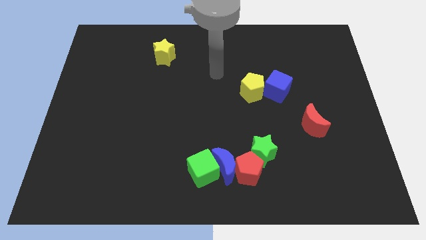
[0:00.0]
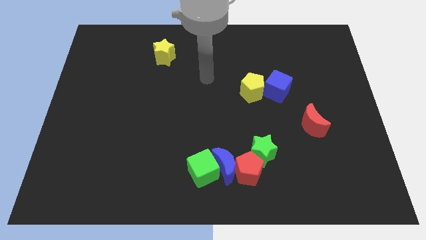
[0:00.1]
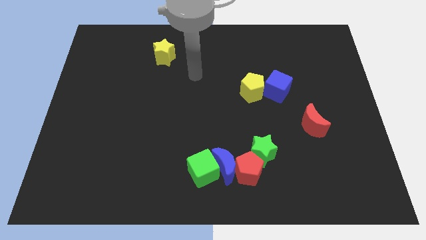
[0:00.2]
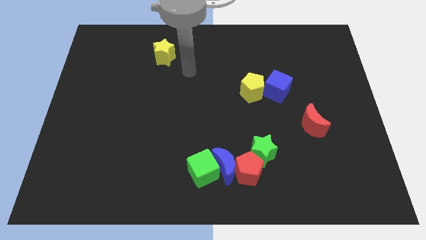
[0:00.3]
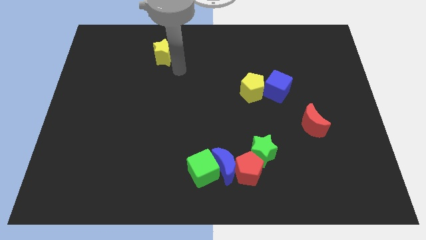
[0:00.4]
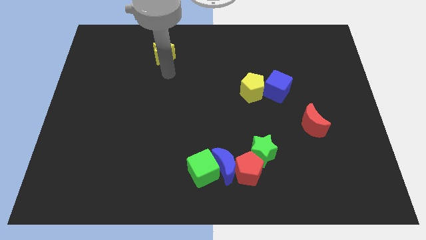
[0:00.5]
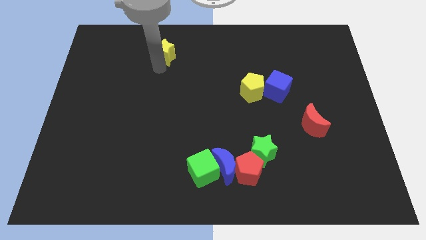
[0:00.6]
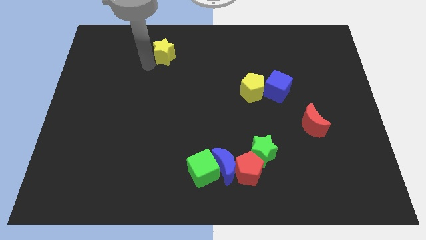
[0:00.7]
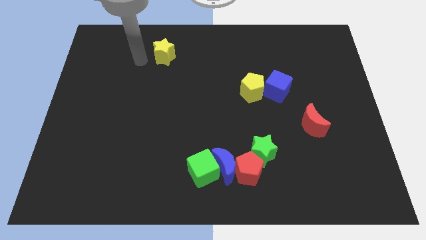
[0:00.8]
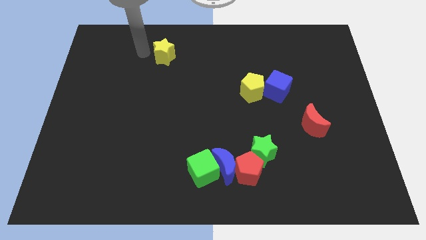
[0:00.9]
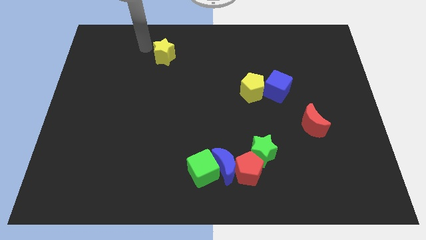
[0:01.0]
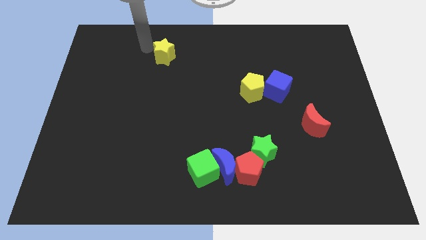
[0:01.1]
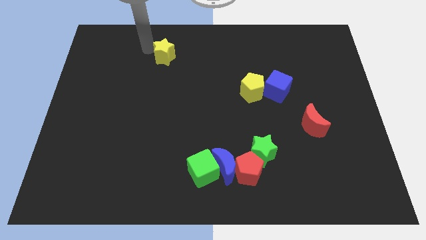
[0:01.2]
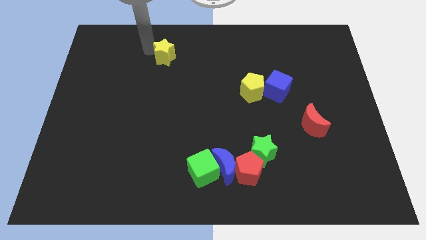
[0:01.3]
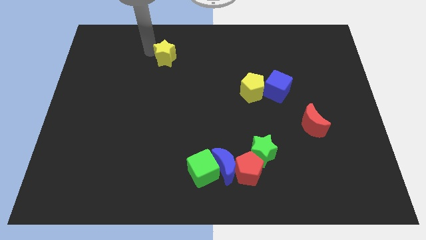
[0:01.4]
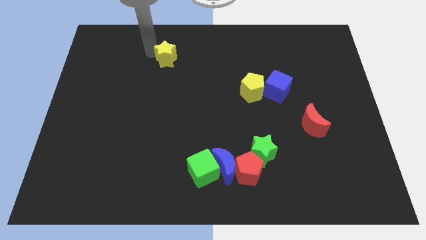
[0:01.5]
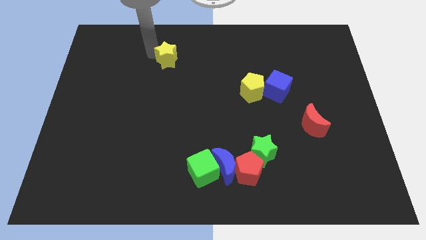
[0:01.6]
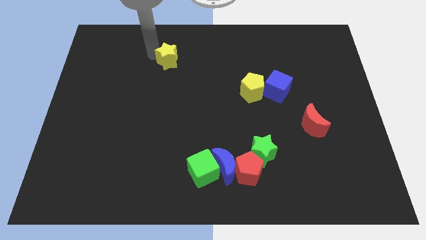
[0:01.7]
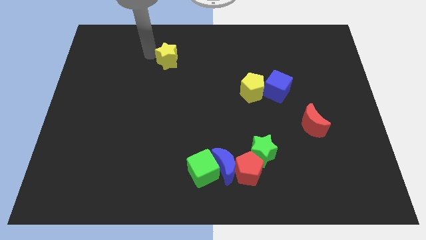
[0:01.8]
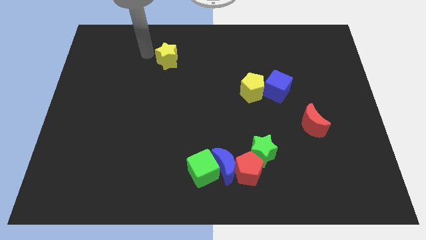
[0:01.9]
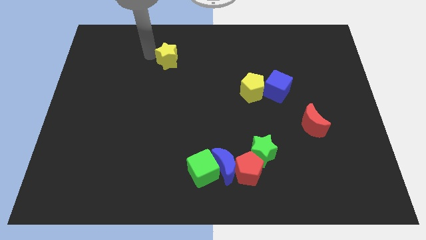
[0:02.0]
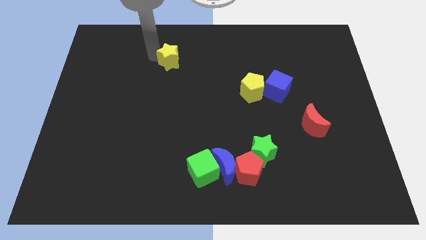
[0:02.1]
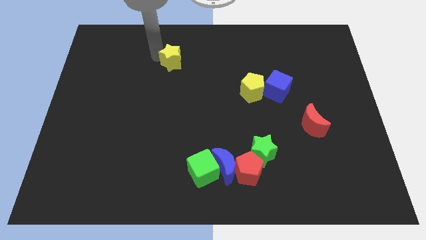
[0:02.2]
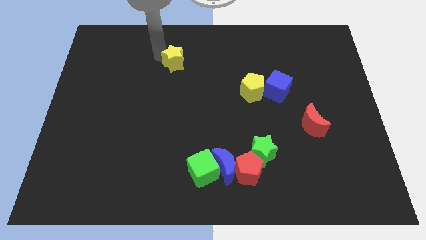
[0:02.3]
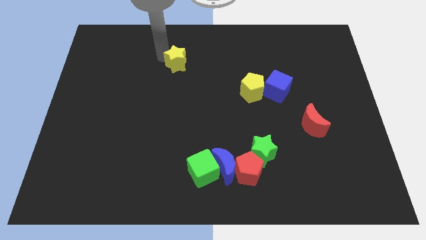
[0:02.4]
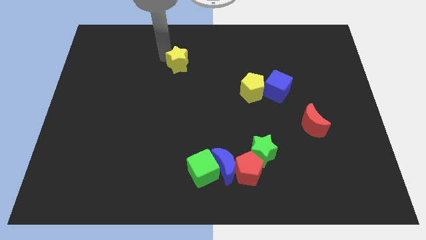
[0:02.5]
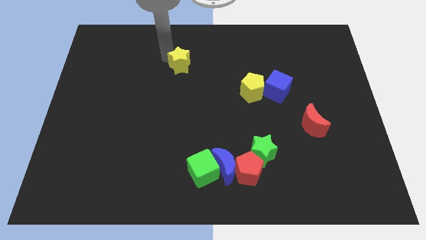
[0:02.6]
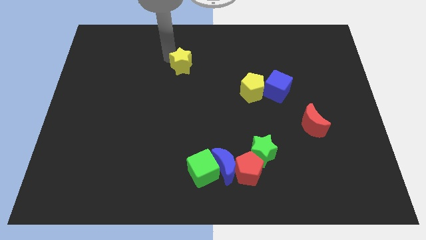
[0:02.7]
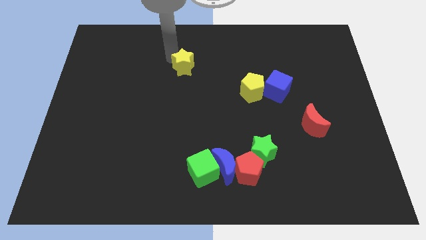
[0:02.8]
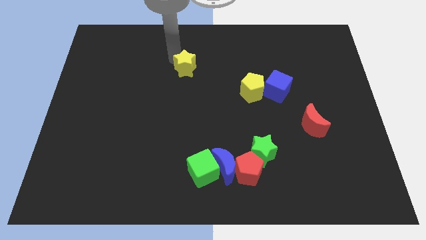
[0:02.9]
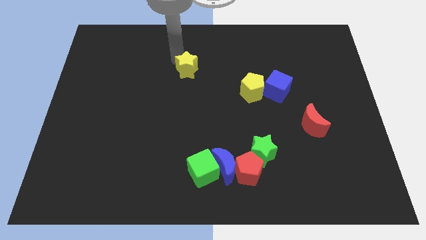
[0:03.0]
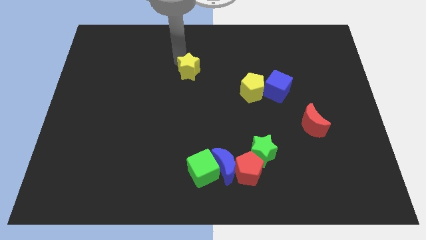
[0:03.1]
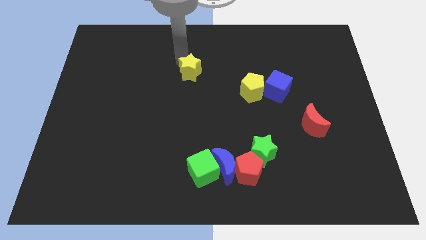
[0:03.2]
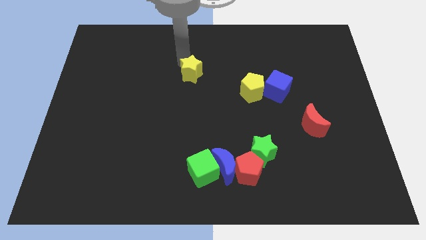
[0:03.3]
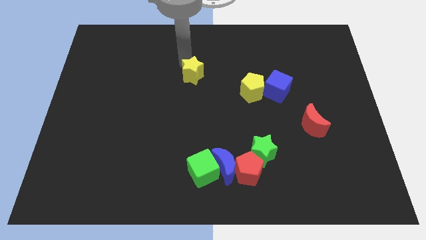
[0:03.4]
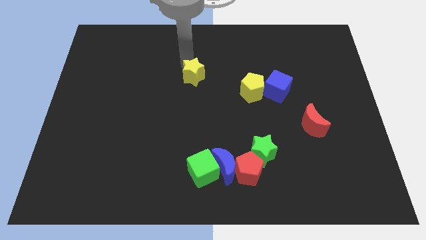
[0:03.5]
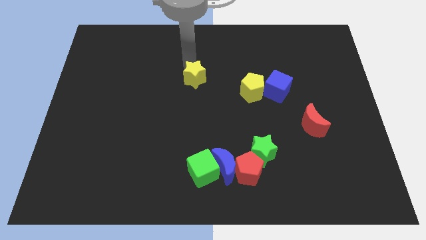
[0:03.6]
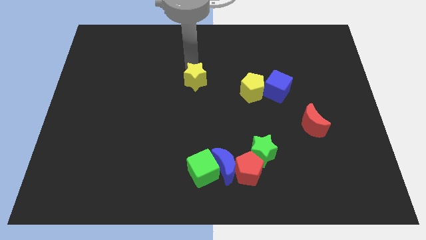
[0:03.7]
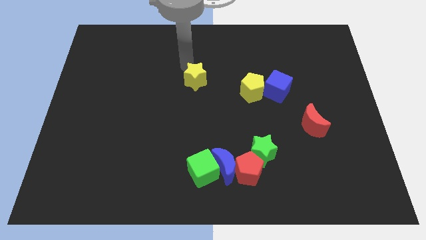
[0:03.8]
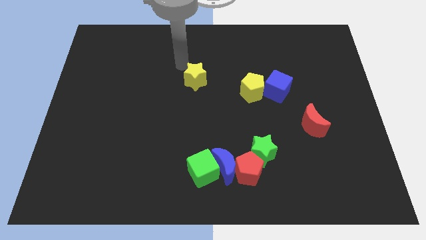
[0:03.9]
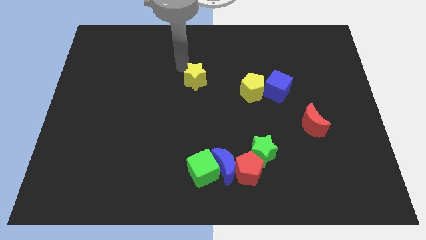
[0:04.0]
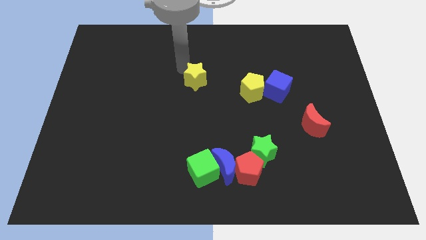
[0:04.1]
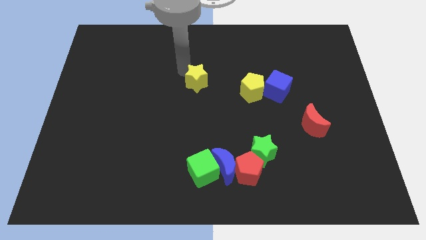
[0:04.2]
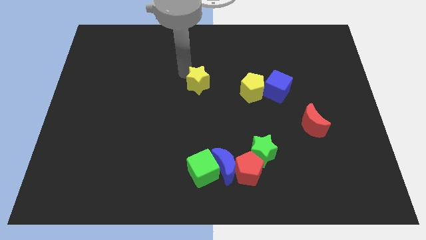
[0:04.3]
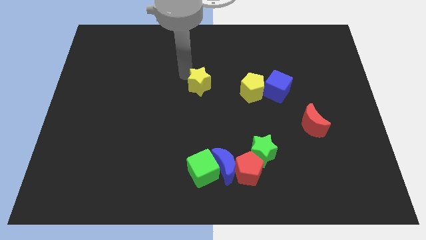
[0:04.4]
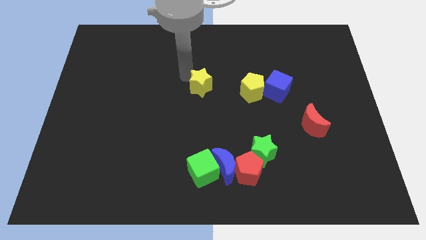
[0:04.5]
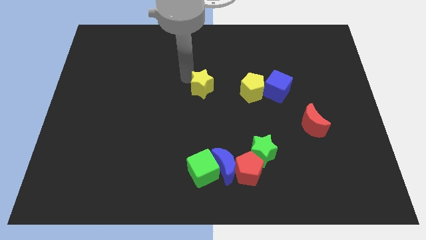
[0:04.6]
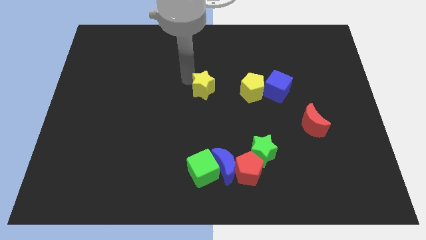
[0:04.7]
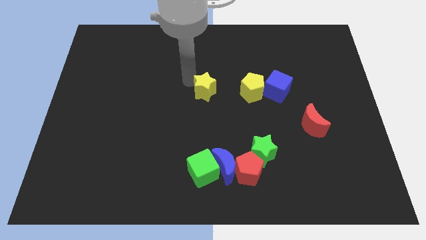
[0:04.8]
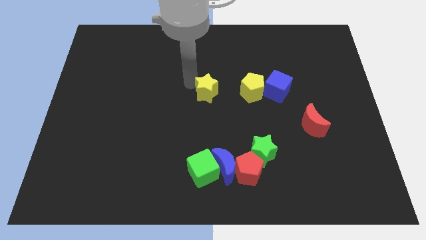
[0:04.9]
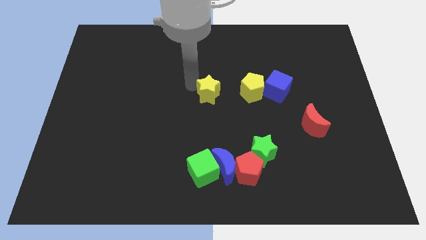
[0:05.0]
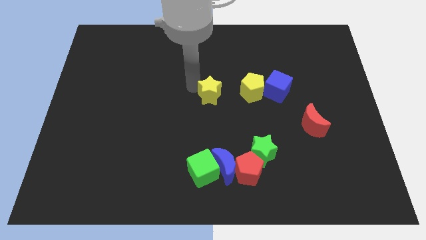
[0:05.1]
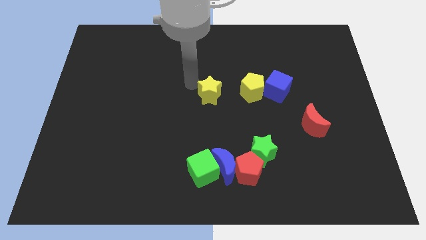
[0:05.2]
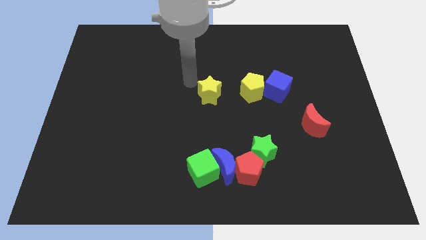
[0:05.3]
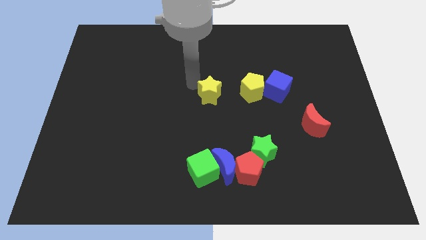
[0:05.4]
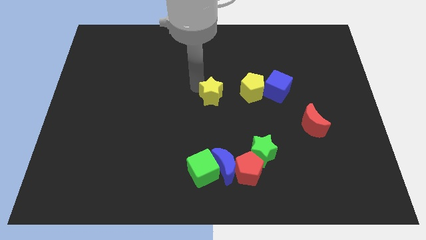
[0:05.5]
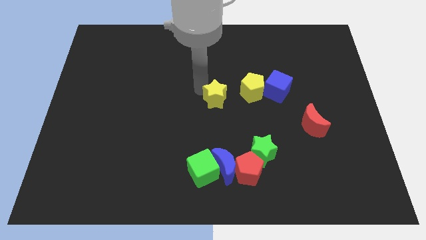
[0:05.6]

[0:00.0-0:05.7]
move the yellow star down and then to the right

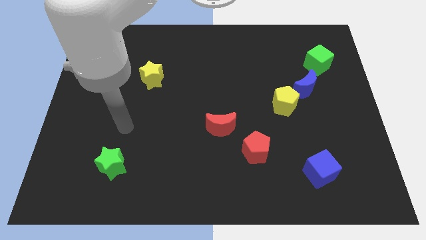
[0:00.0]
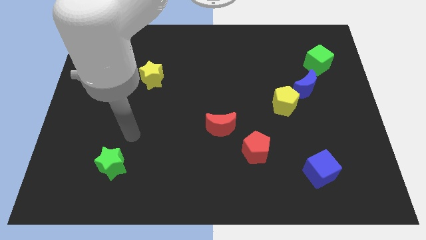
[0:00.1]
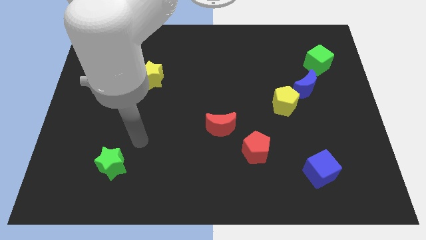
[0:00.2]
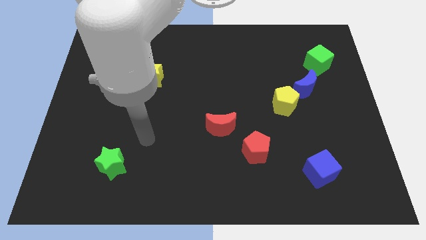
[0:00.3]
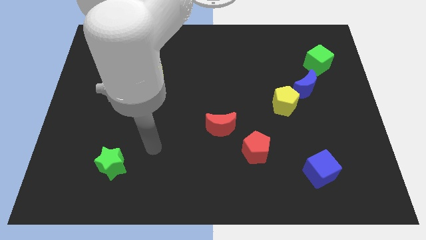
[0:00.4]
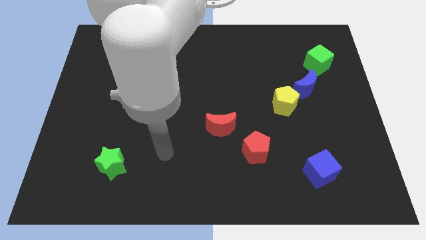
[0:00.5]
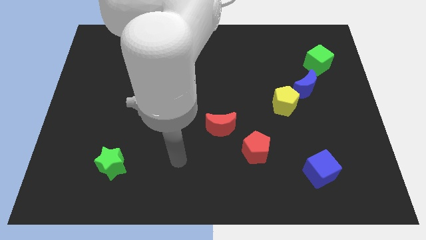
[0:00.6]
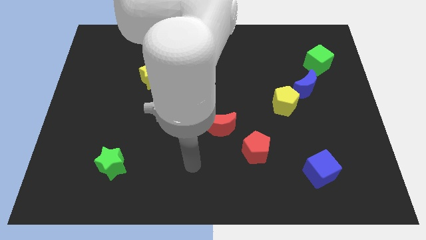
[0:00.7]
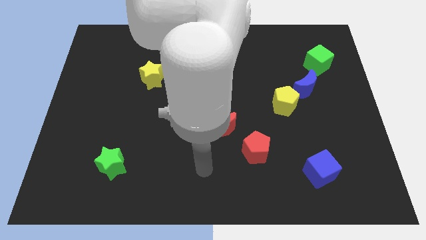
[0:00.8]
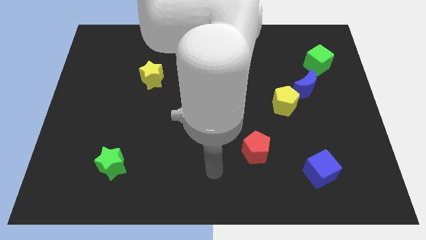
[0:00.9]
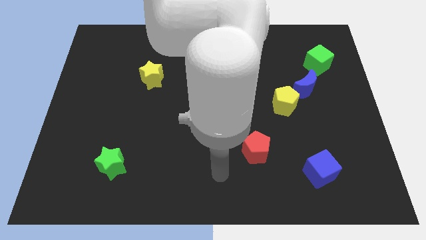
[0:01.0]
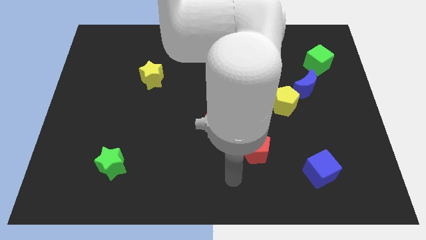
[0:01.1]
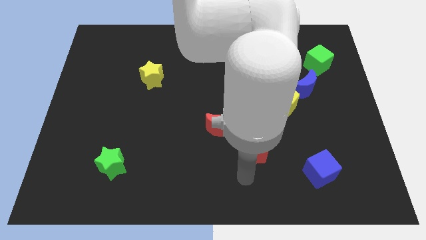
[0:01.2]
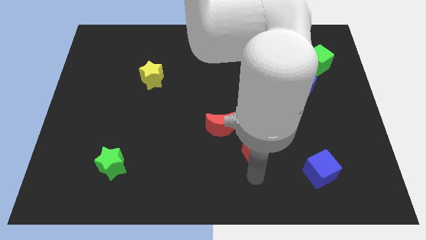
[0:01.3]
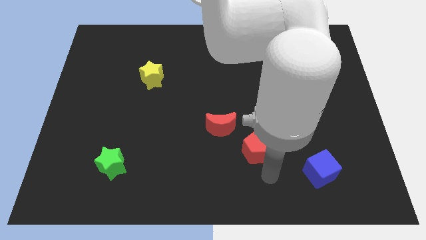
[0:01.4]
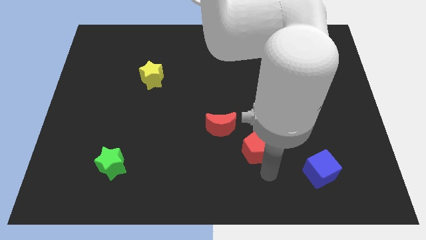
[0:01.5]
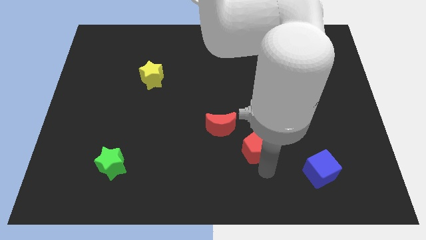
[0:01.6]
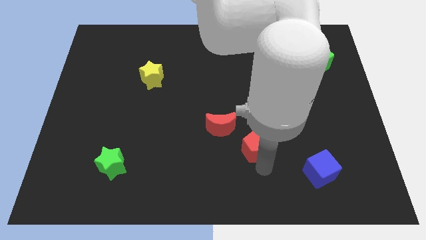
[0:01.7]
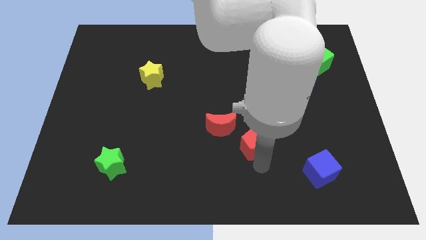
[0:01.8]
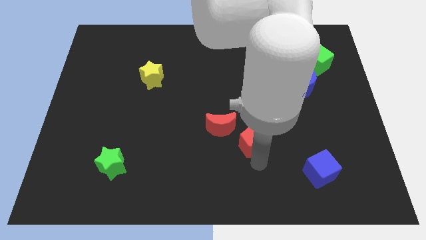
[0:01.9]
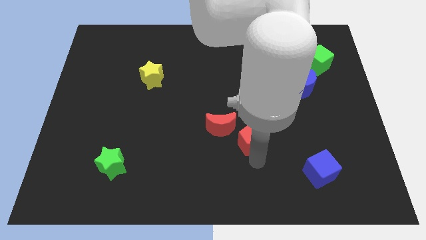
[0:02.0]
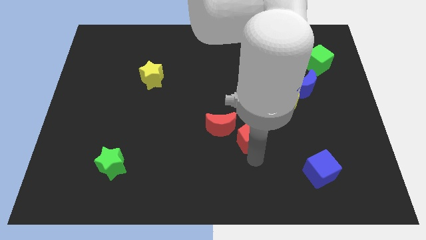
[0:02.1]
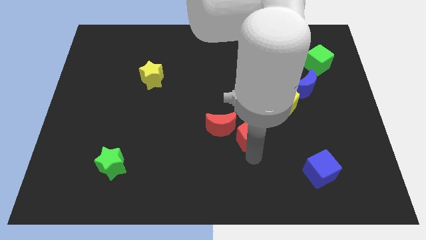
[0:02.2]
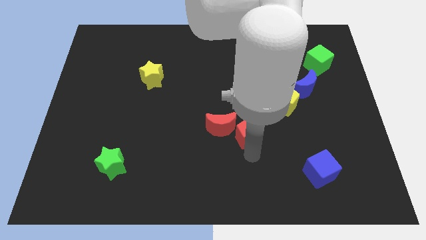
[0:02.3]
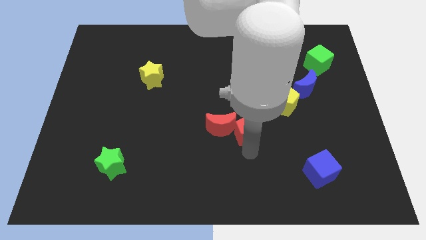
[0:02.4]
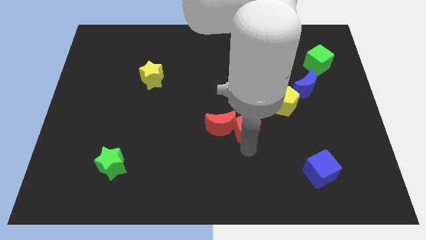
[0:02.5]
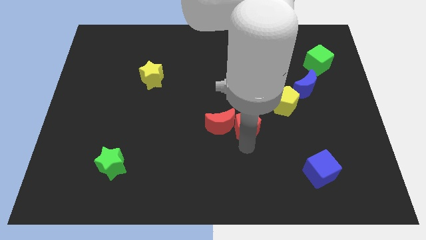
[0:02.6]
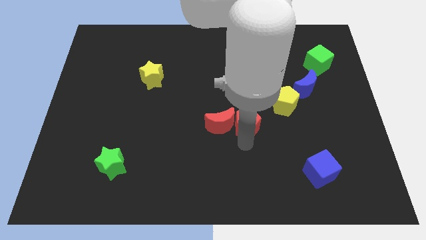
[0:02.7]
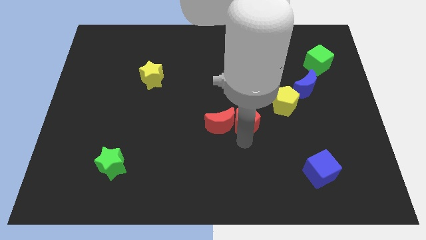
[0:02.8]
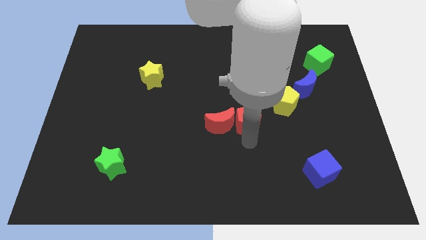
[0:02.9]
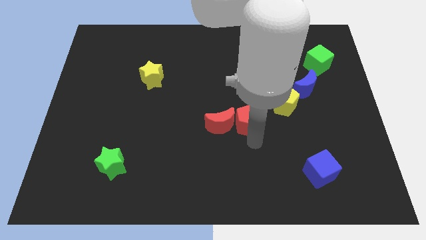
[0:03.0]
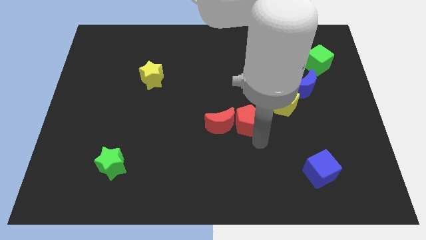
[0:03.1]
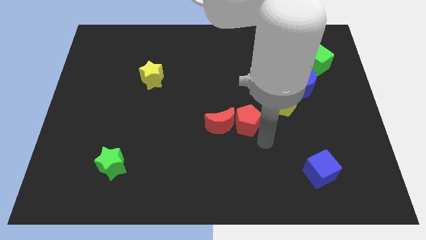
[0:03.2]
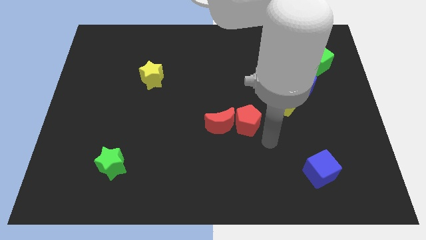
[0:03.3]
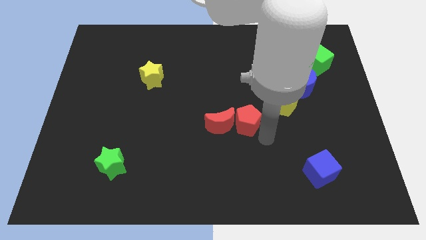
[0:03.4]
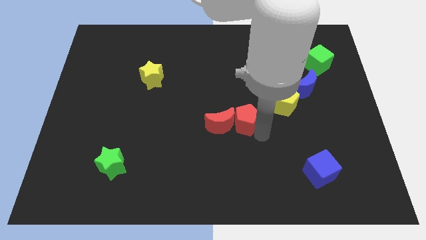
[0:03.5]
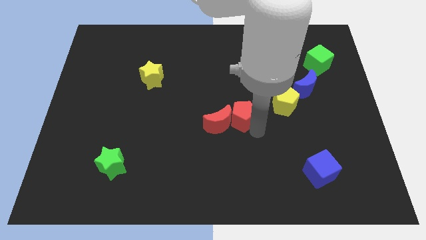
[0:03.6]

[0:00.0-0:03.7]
push the red pentagon a little bit up and then to the left
